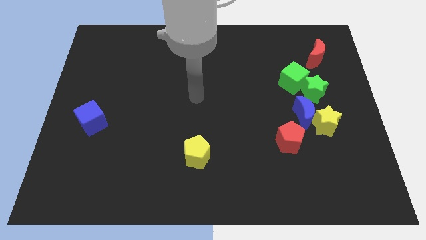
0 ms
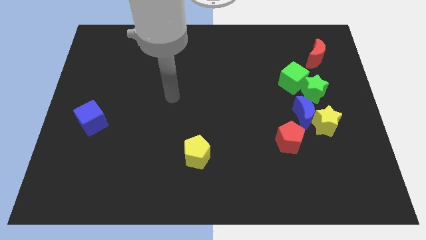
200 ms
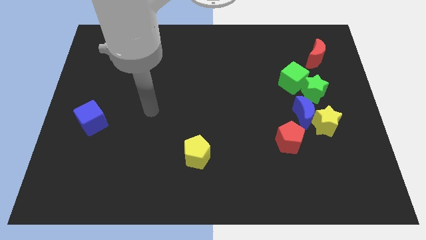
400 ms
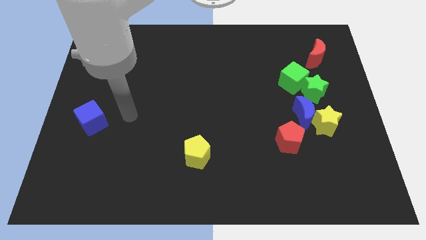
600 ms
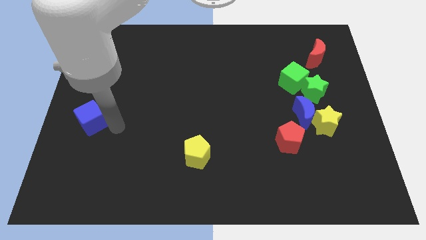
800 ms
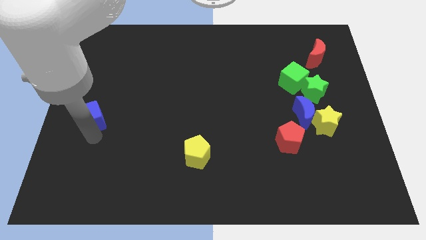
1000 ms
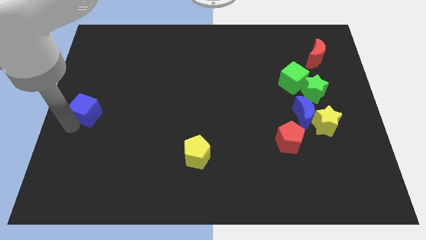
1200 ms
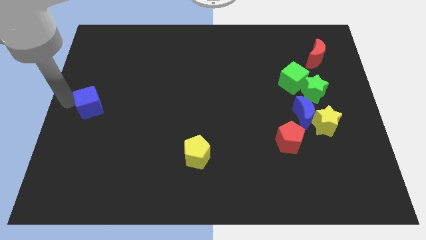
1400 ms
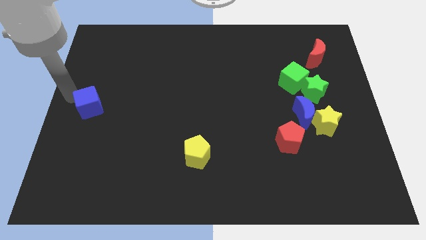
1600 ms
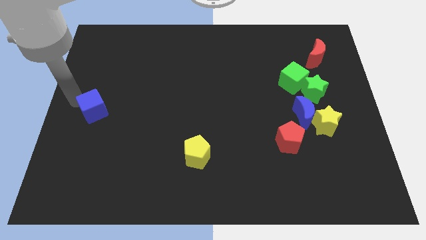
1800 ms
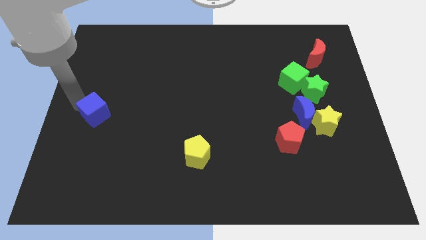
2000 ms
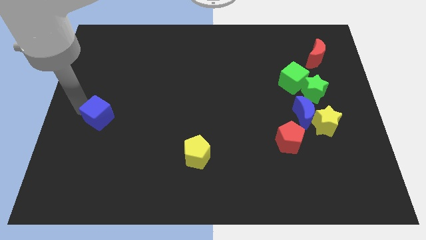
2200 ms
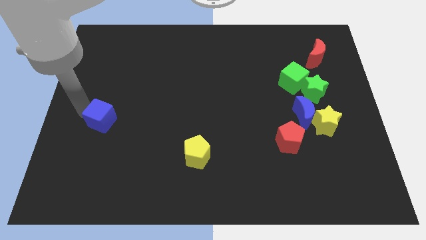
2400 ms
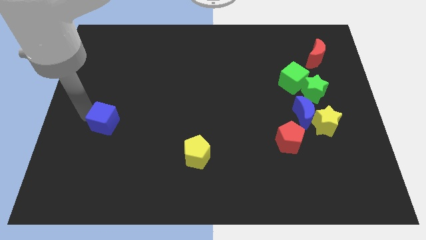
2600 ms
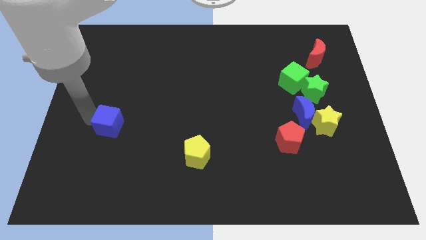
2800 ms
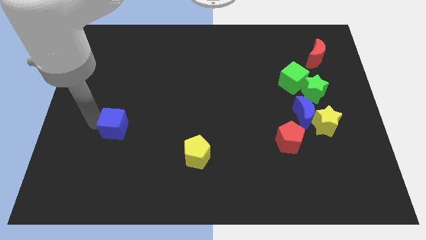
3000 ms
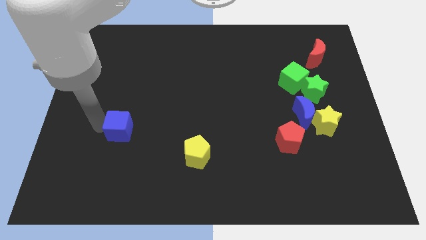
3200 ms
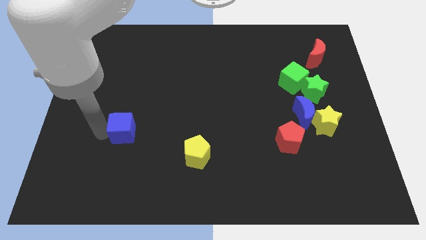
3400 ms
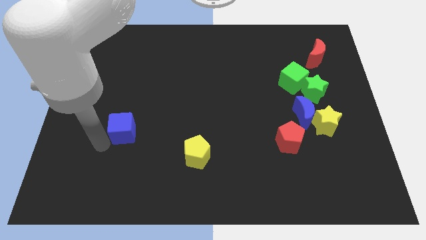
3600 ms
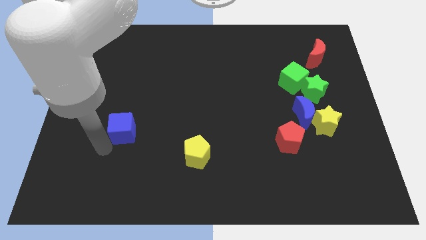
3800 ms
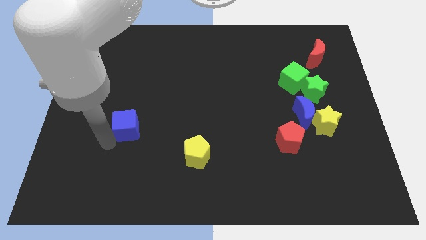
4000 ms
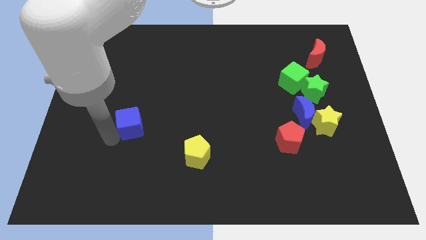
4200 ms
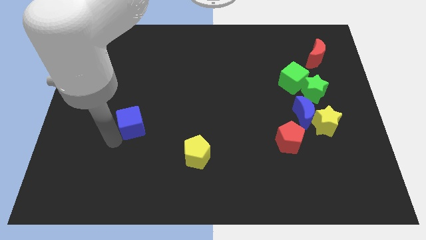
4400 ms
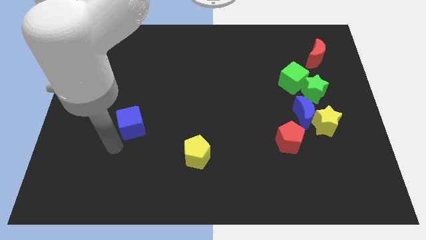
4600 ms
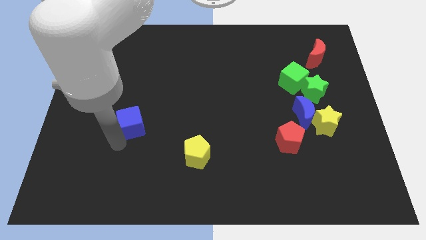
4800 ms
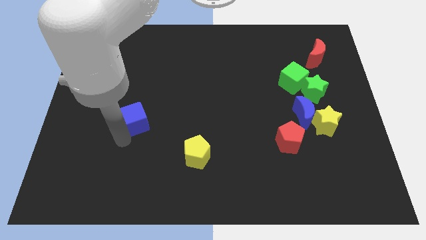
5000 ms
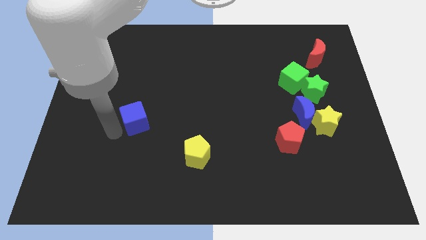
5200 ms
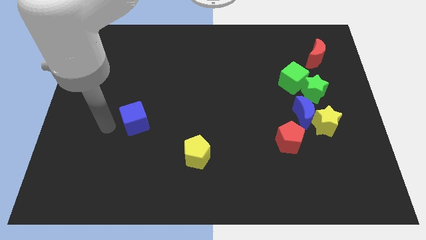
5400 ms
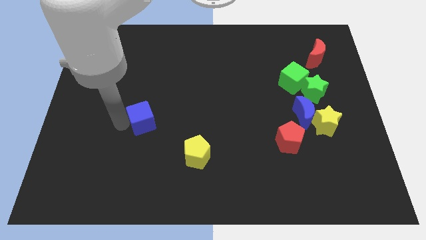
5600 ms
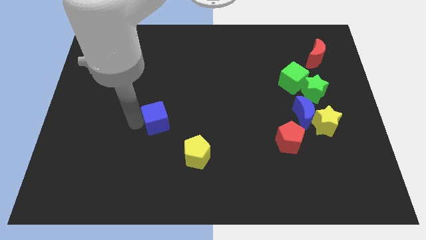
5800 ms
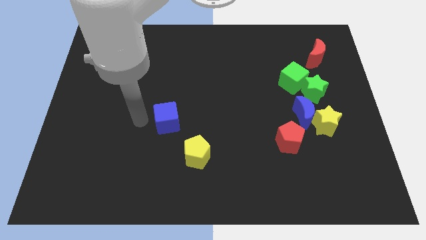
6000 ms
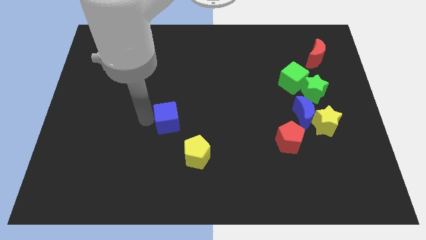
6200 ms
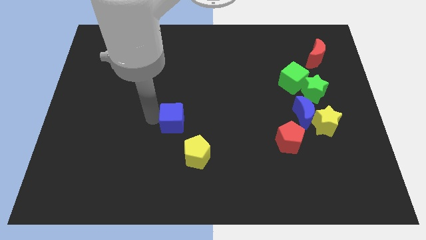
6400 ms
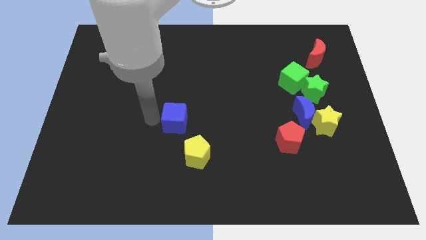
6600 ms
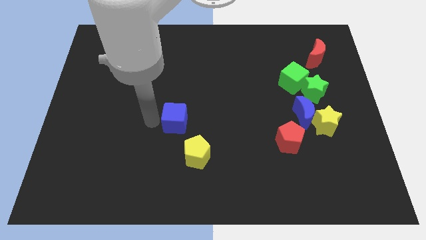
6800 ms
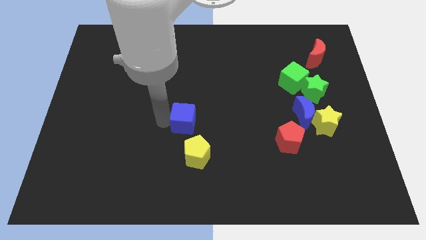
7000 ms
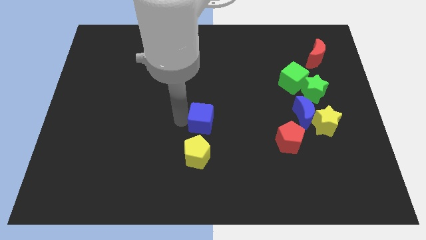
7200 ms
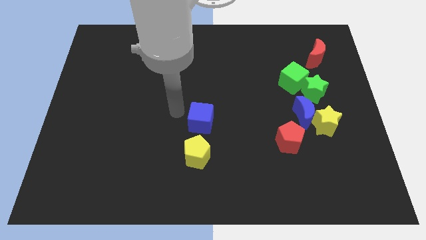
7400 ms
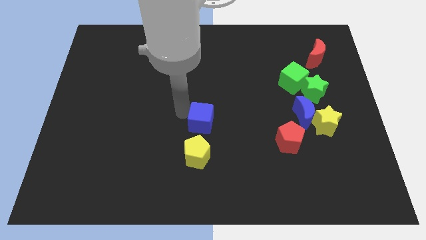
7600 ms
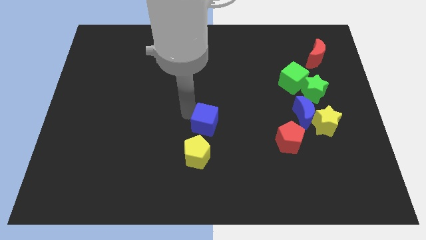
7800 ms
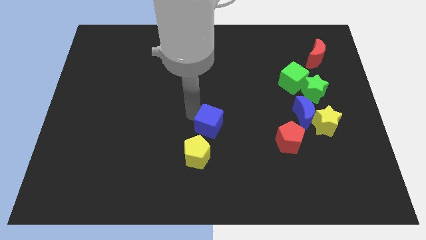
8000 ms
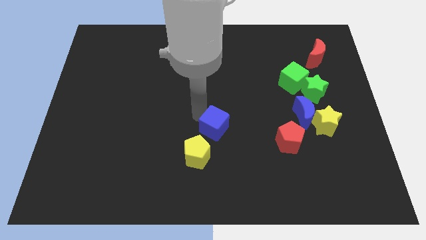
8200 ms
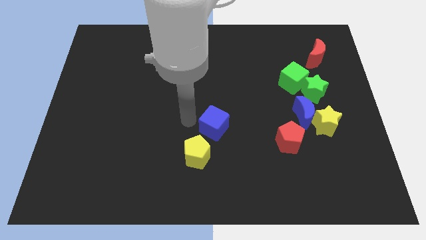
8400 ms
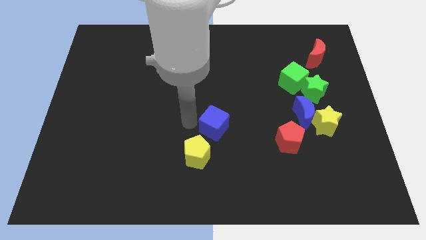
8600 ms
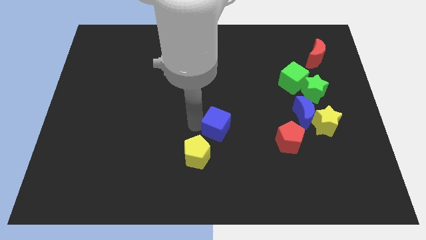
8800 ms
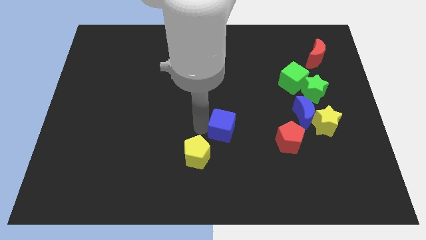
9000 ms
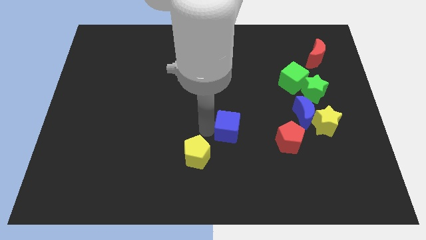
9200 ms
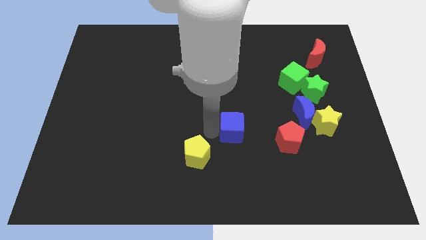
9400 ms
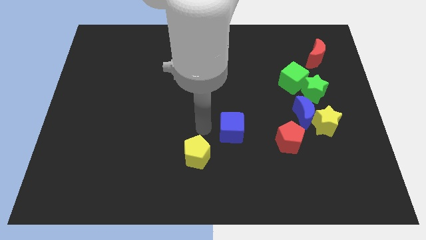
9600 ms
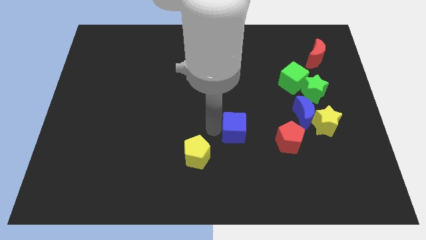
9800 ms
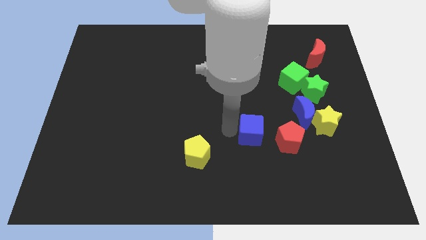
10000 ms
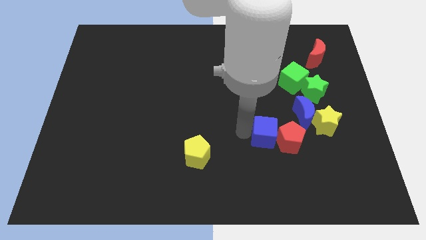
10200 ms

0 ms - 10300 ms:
push the blue cube close to the red pentagon

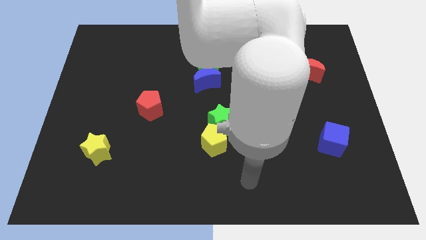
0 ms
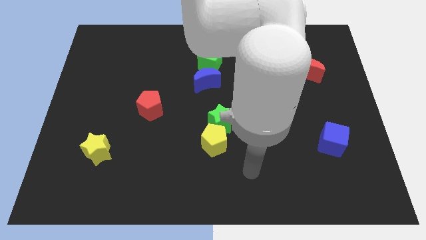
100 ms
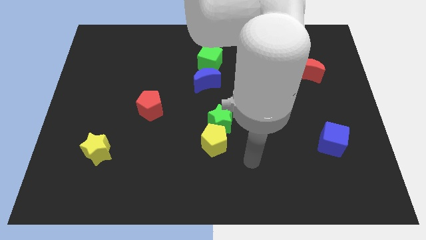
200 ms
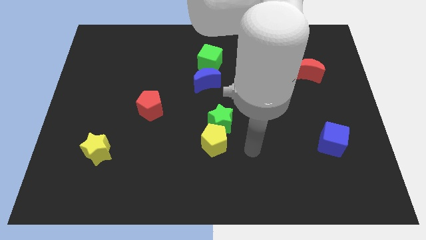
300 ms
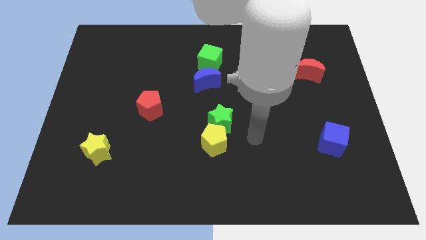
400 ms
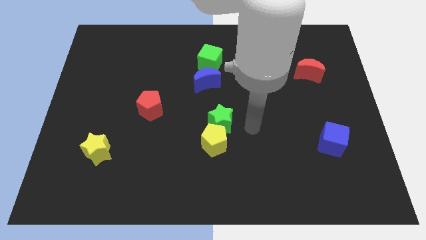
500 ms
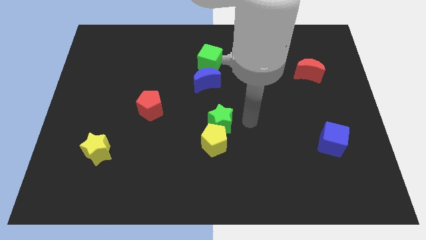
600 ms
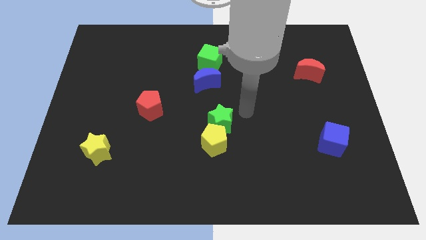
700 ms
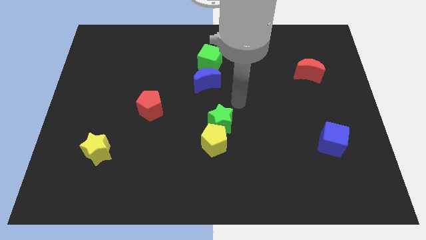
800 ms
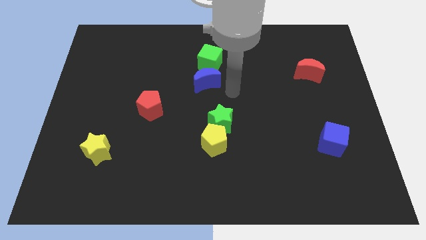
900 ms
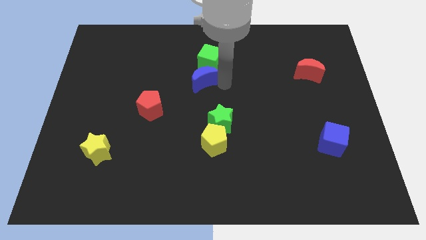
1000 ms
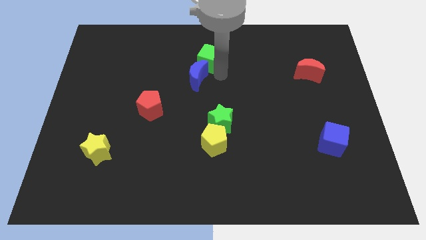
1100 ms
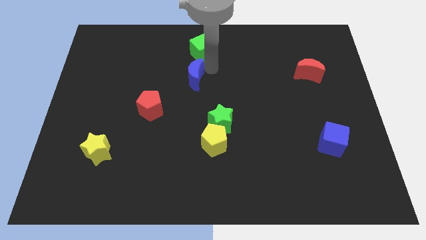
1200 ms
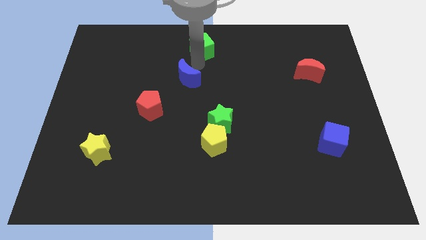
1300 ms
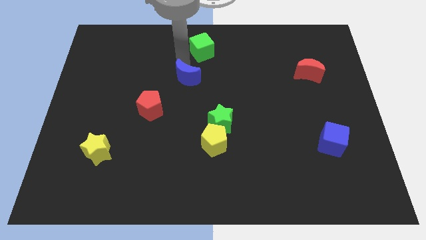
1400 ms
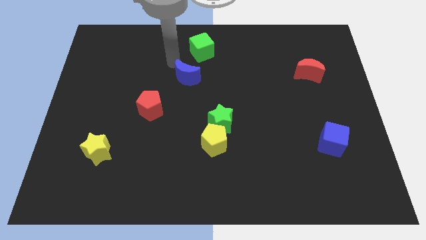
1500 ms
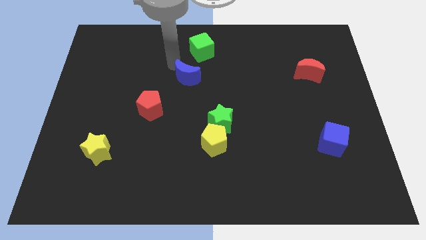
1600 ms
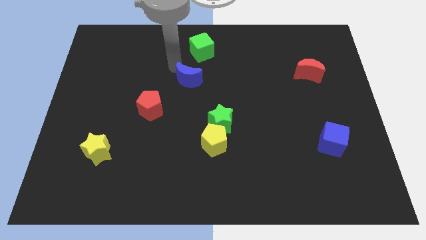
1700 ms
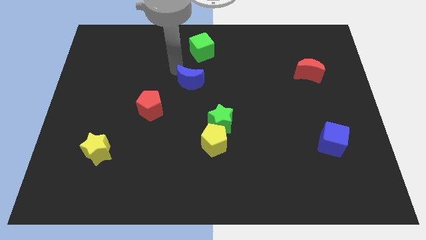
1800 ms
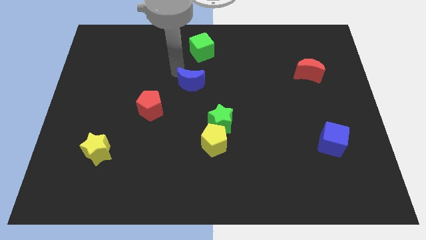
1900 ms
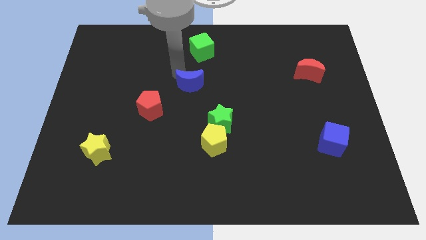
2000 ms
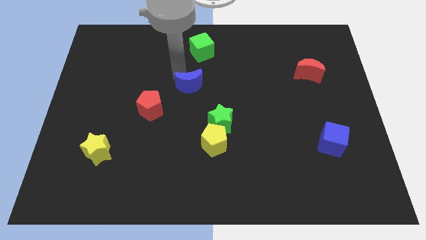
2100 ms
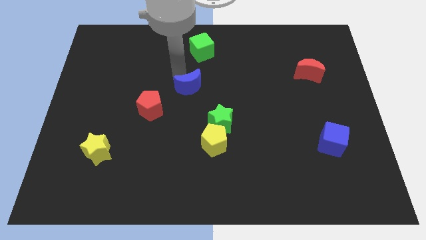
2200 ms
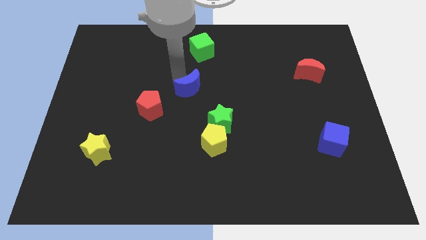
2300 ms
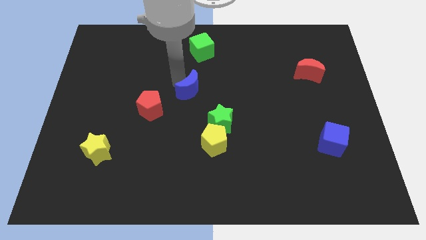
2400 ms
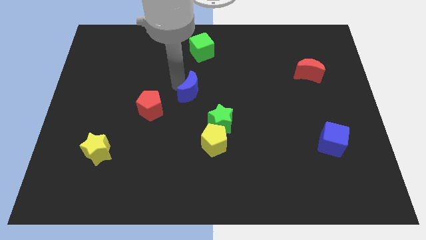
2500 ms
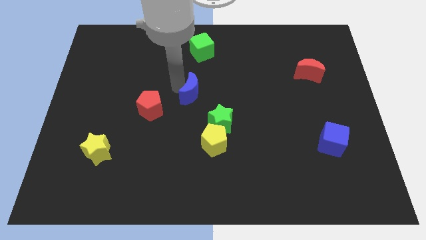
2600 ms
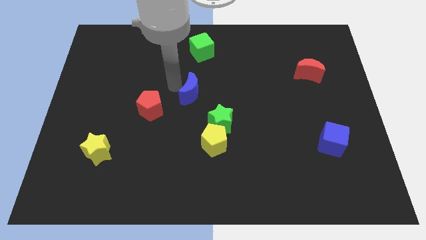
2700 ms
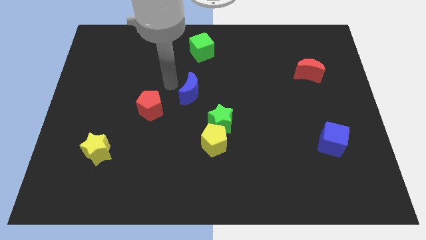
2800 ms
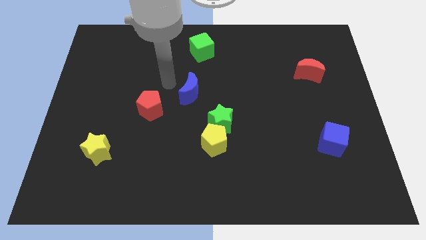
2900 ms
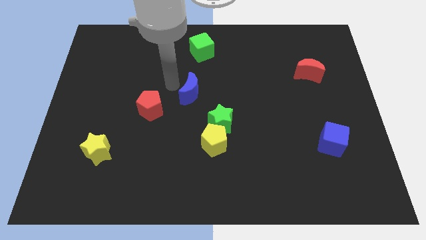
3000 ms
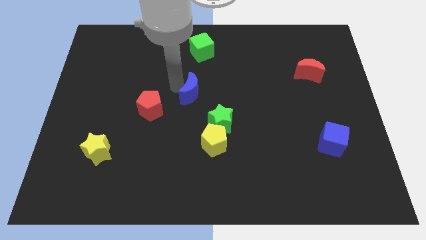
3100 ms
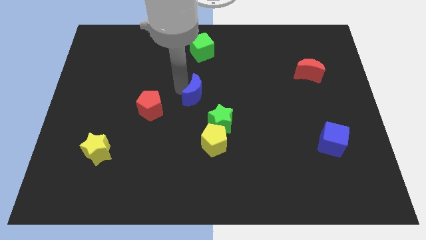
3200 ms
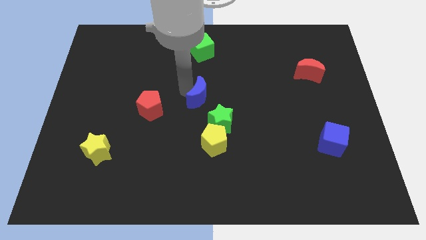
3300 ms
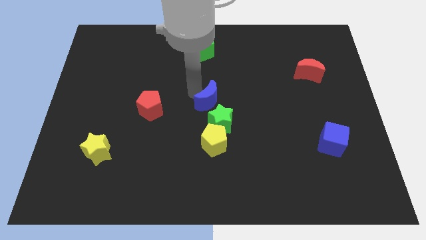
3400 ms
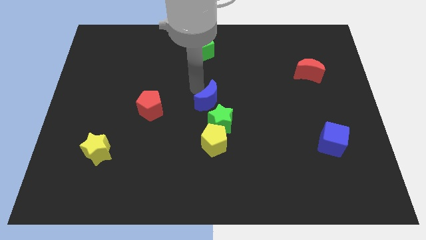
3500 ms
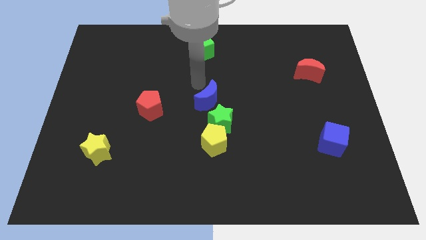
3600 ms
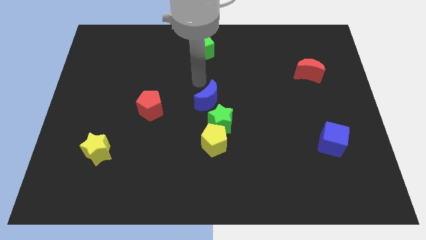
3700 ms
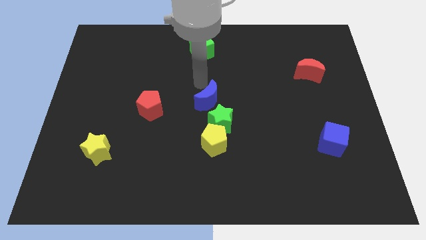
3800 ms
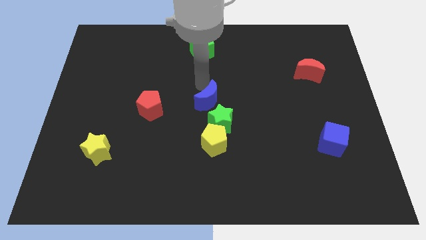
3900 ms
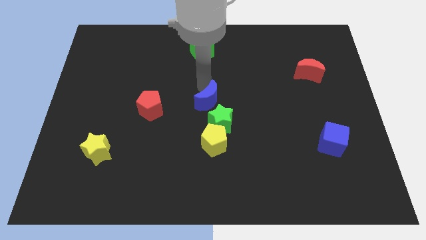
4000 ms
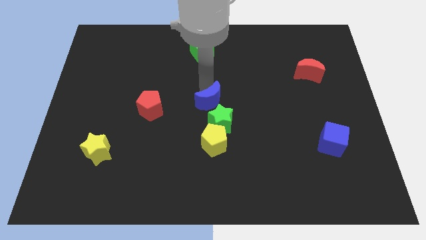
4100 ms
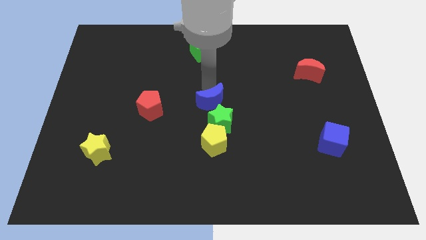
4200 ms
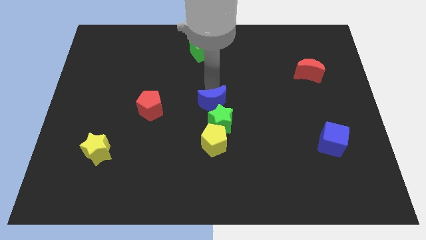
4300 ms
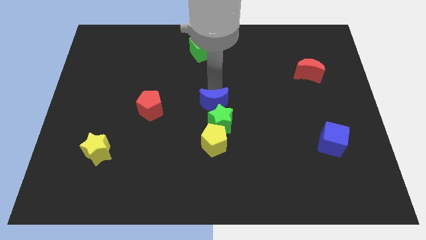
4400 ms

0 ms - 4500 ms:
move the blue moon close to the green star
